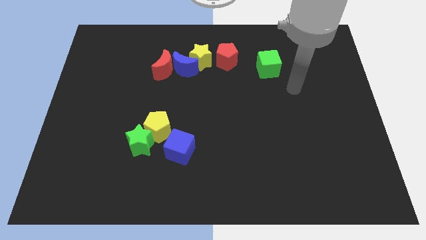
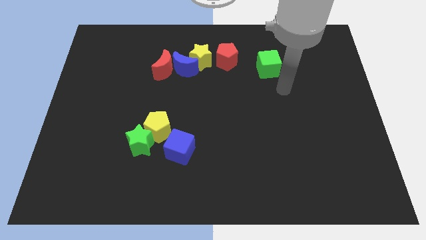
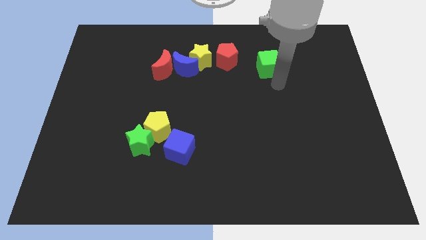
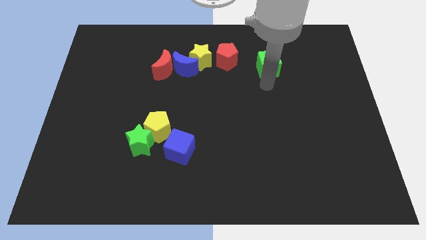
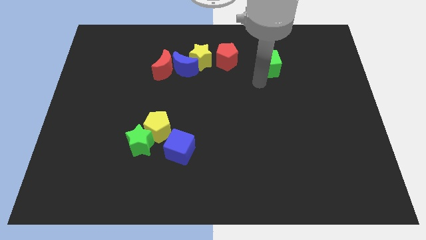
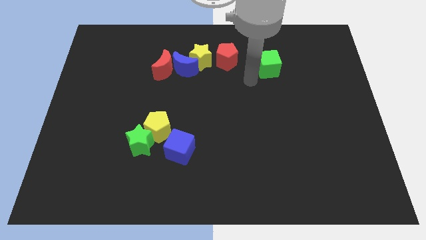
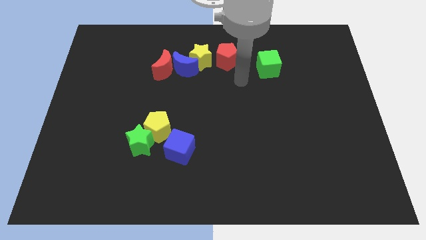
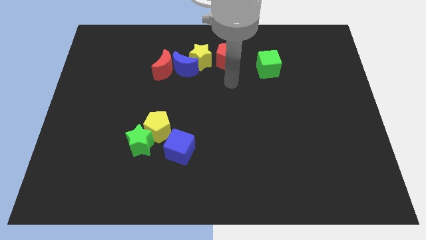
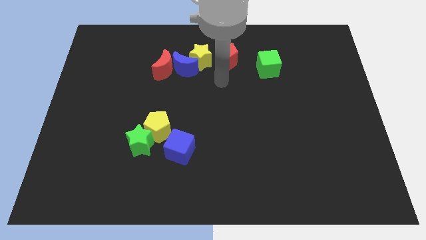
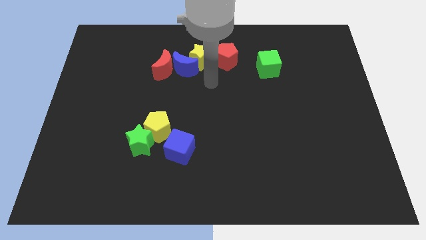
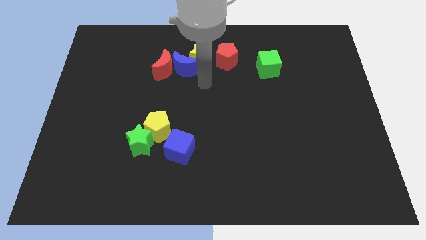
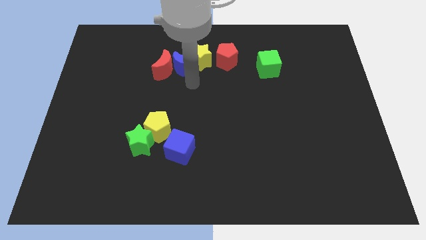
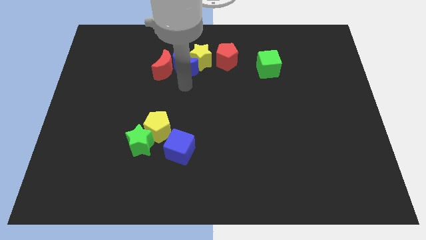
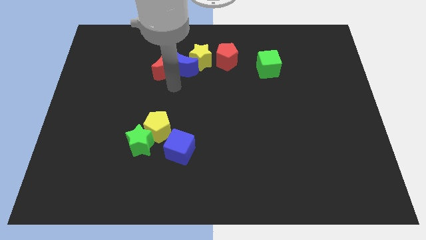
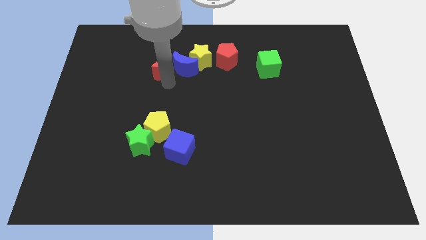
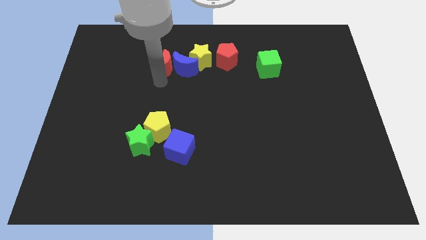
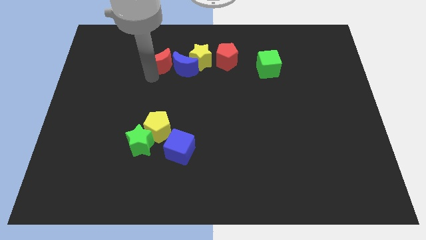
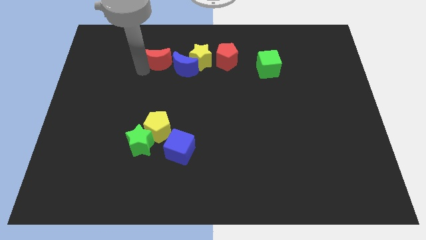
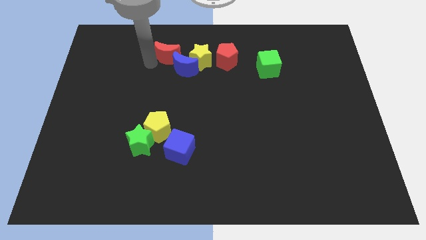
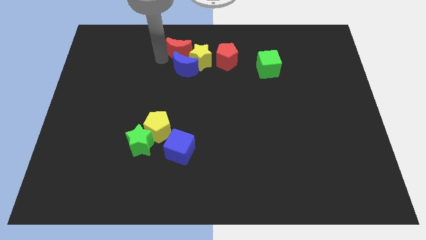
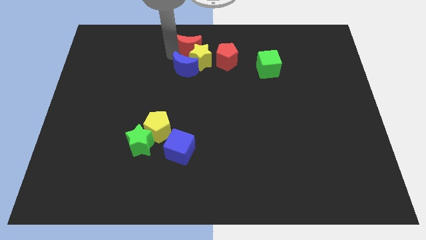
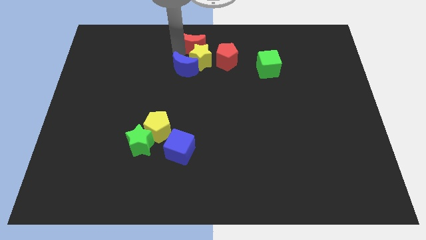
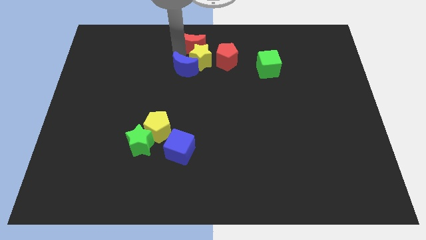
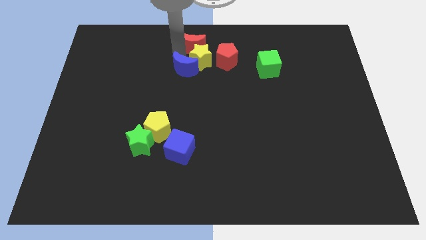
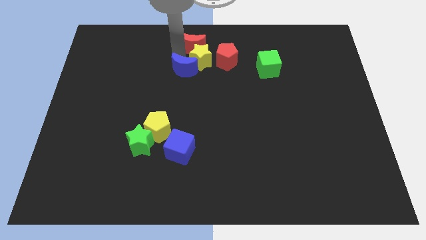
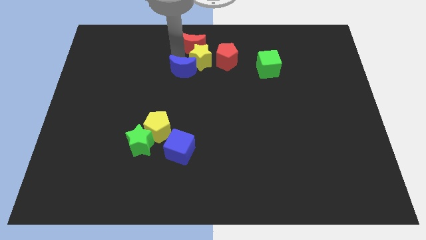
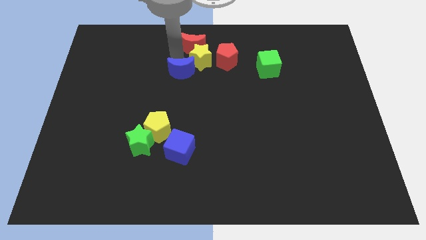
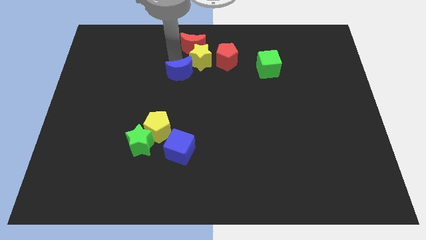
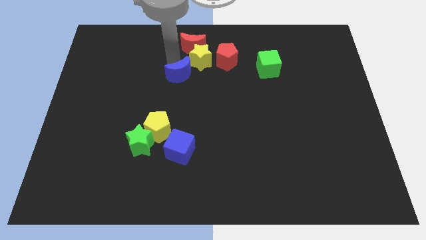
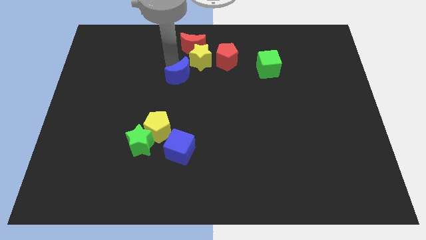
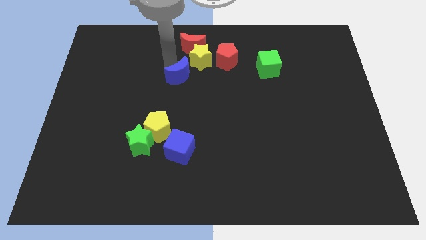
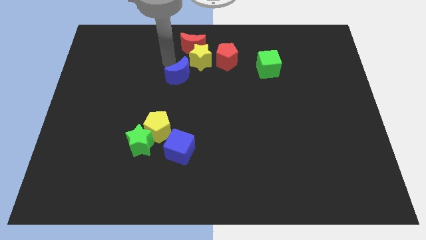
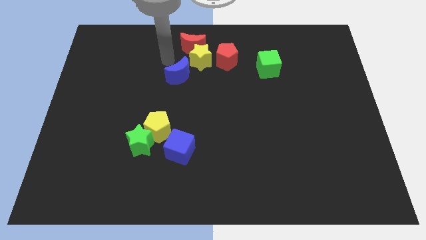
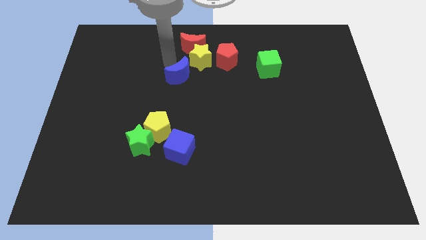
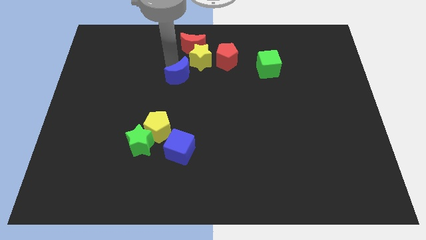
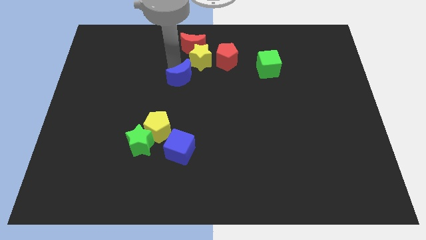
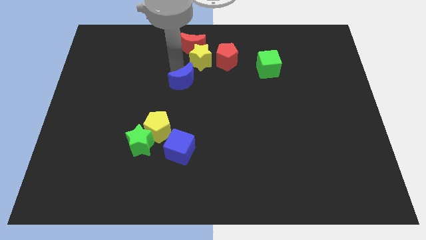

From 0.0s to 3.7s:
move the blue moon away from the red moon and yellow star

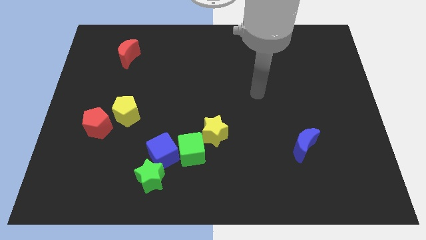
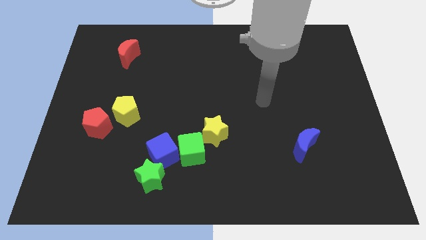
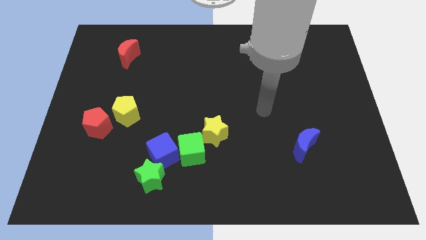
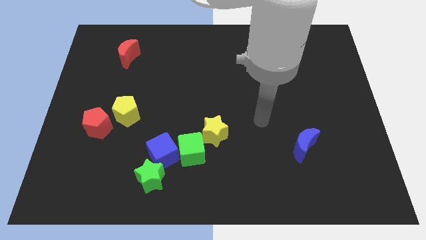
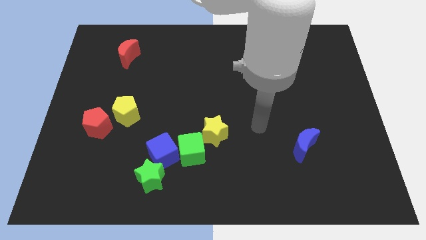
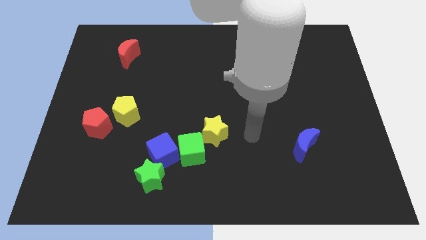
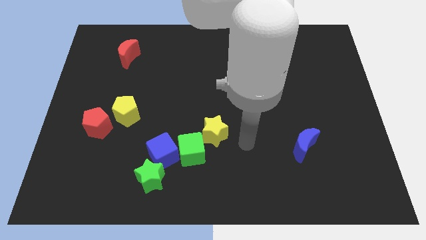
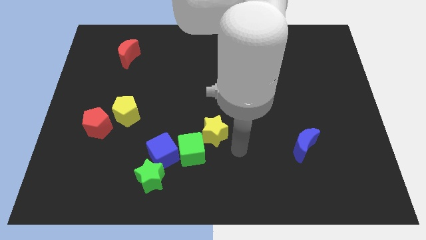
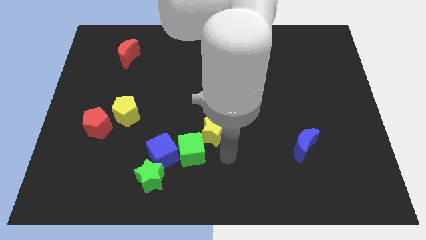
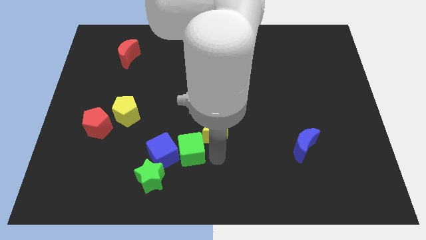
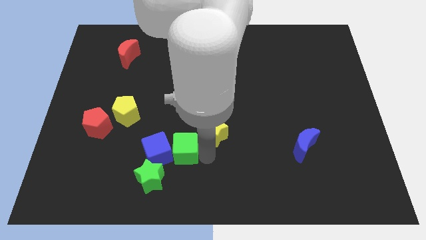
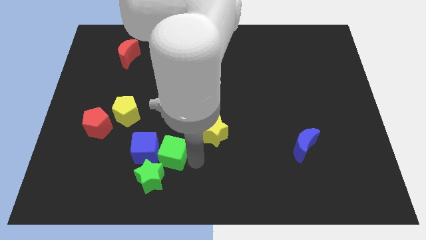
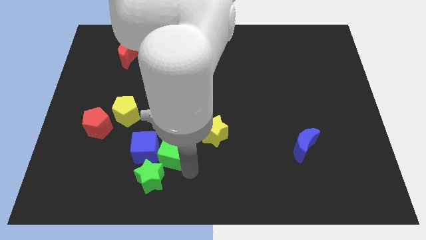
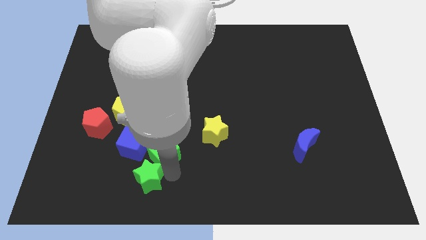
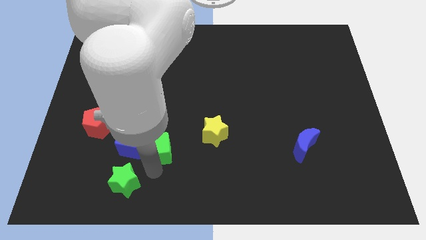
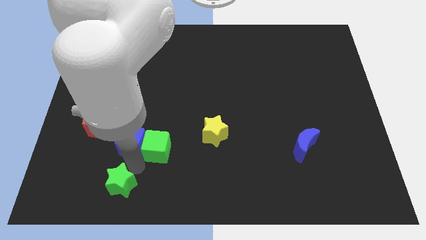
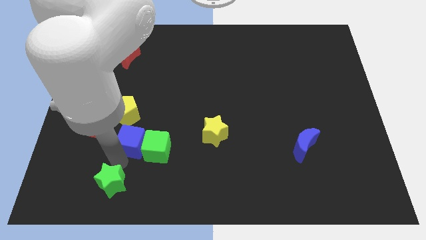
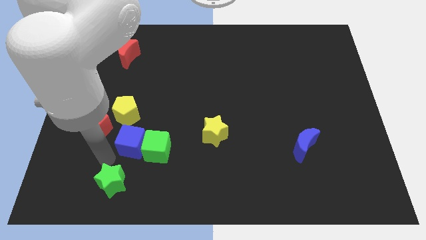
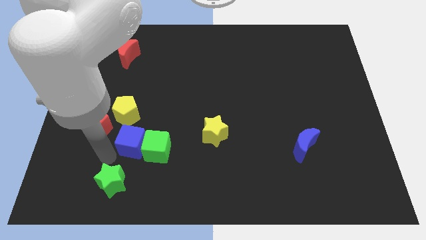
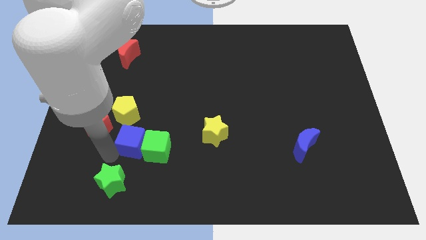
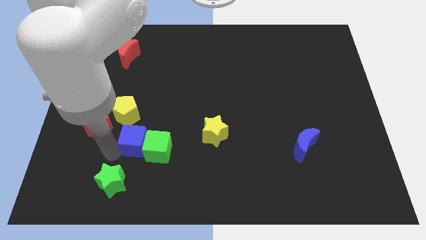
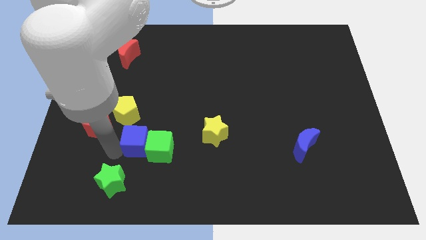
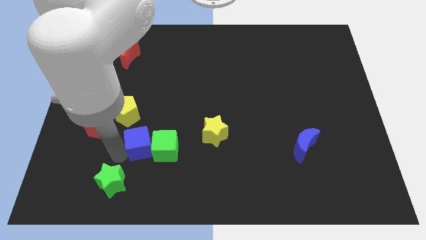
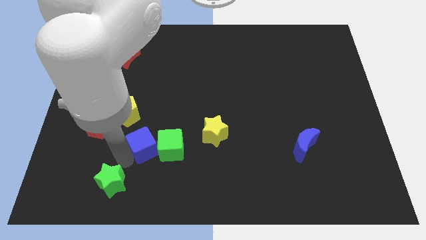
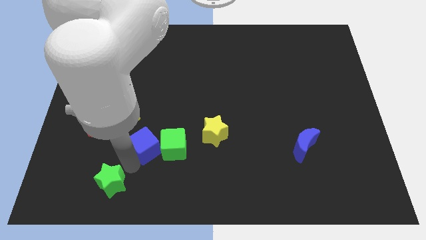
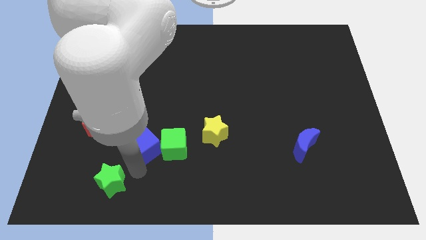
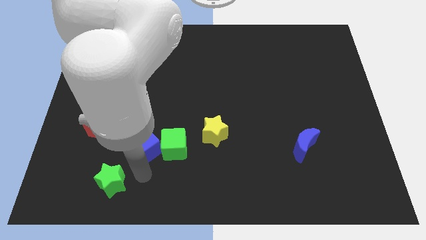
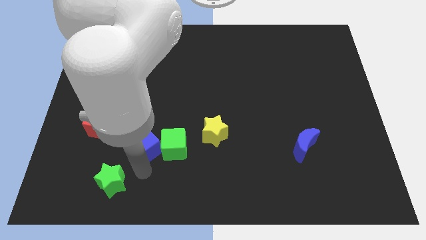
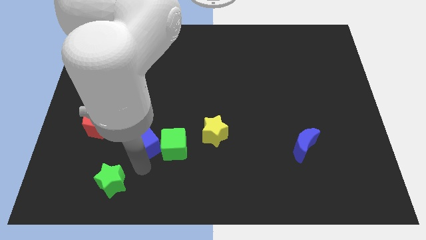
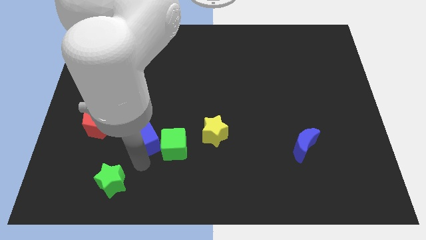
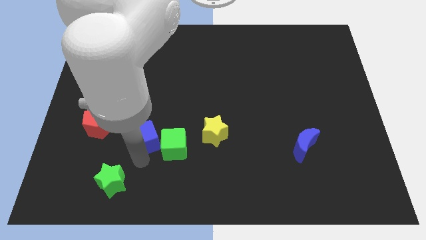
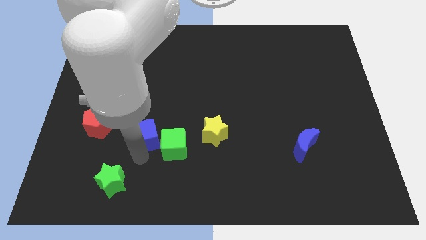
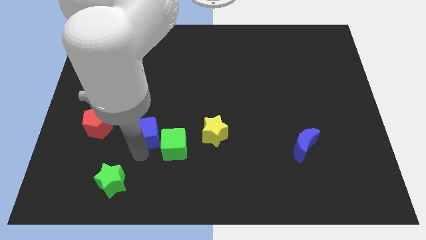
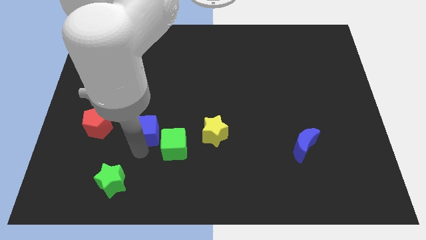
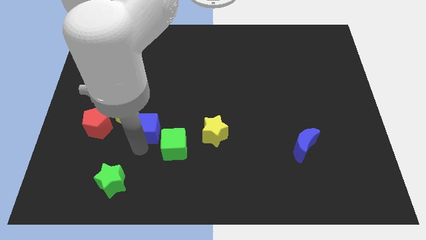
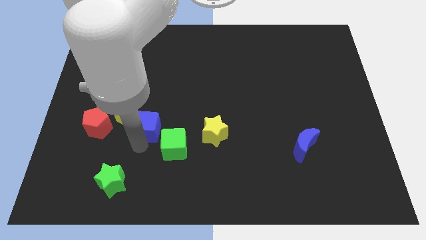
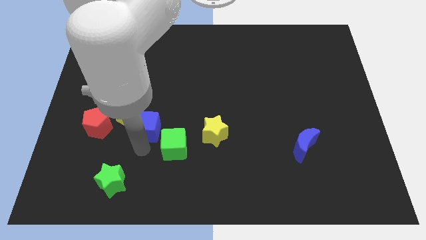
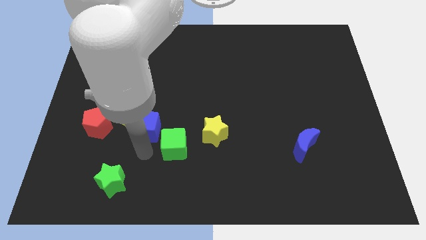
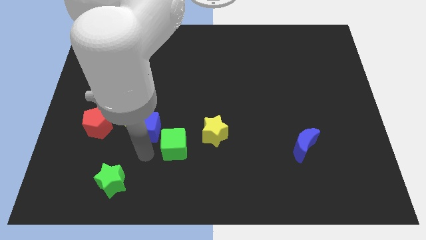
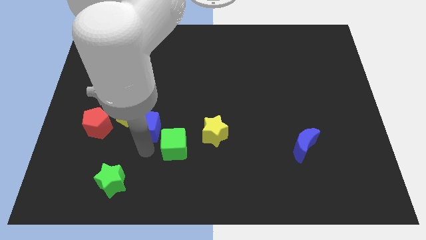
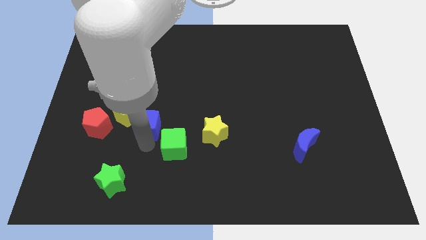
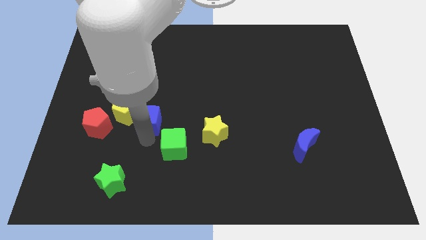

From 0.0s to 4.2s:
move the blue cube away from the green star and green cube

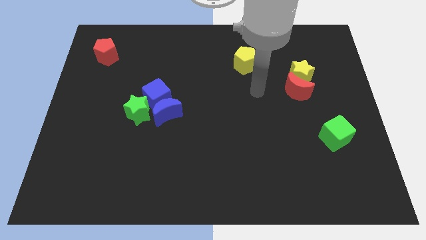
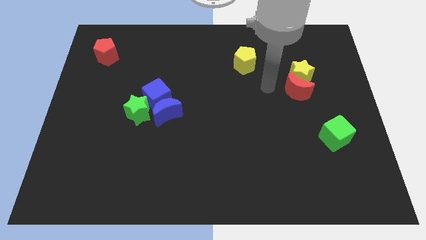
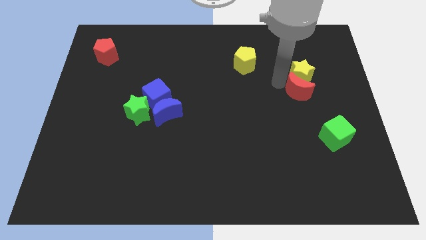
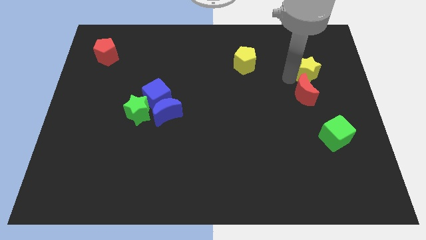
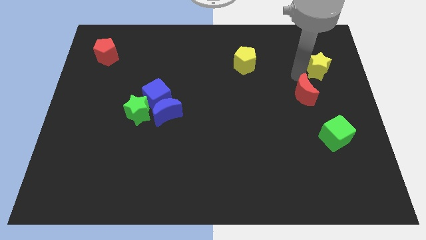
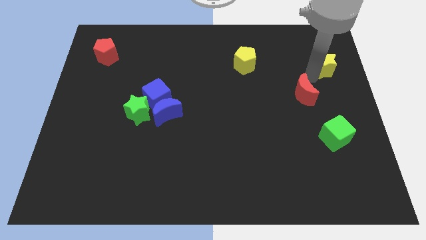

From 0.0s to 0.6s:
pull the red moon apart from the yellow star

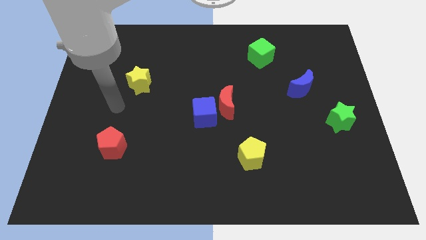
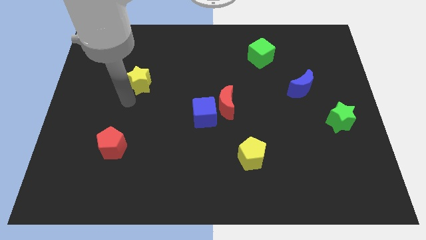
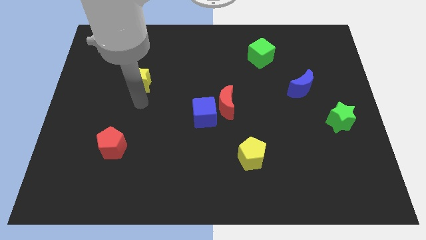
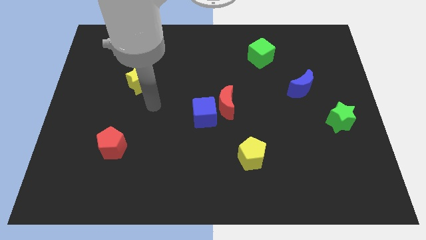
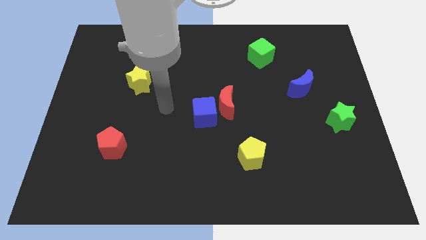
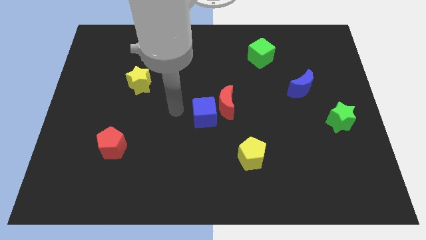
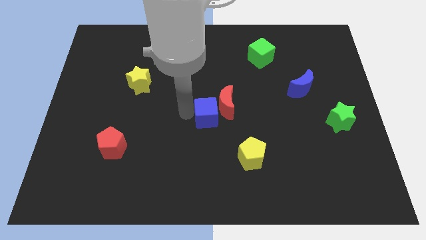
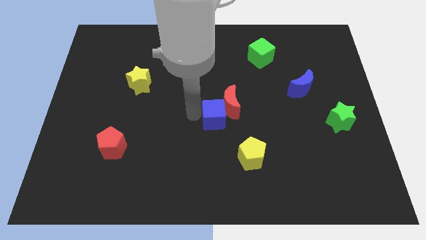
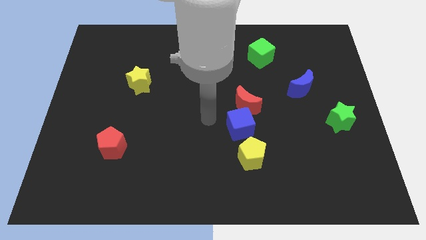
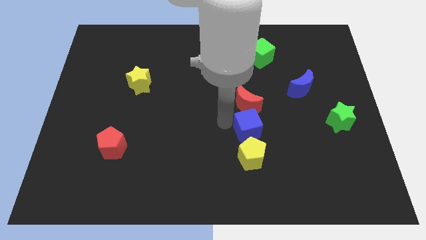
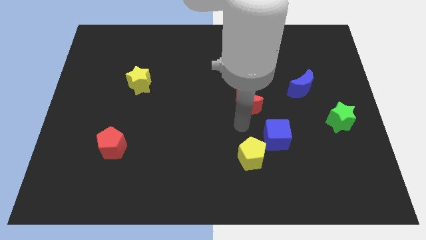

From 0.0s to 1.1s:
separate the red moon from the blue cube
